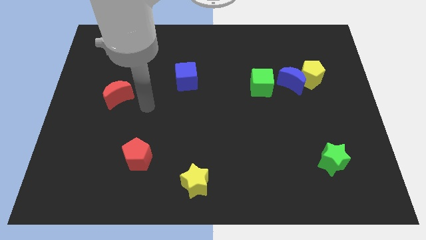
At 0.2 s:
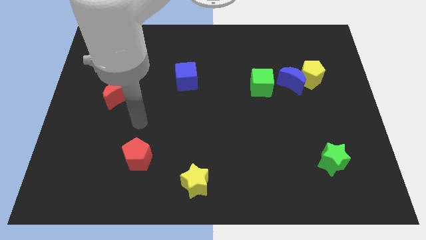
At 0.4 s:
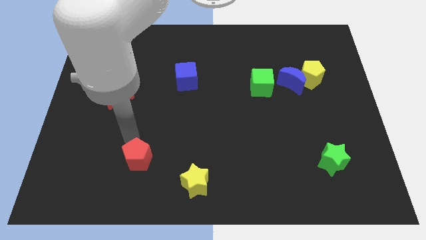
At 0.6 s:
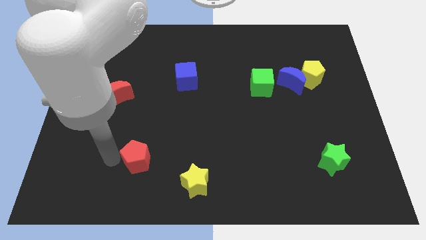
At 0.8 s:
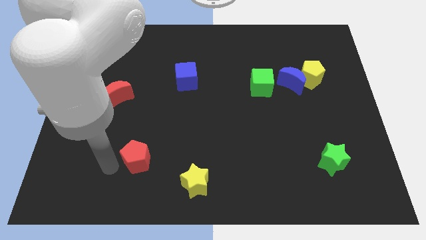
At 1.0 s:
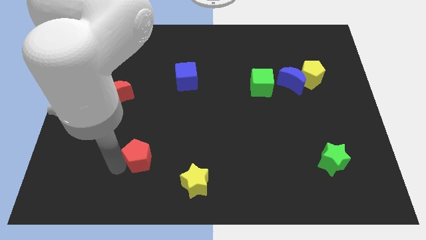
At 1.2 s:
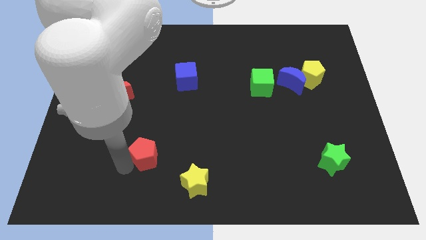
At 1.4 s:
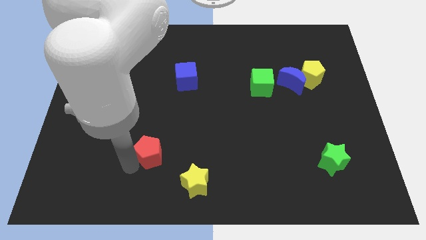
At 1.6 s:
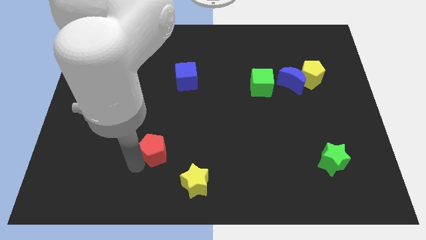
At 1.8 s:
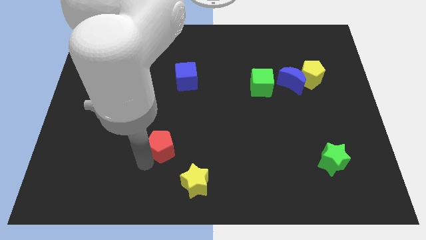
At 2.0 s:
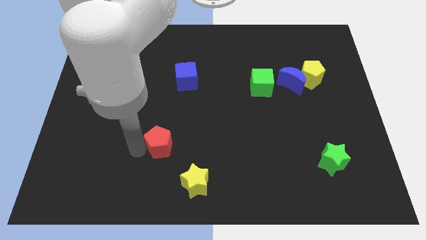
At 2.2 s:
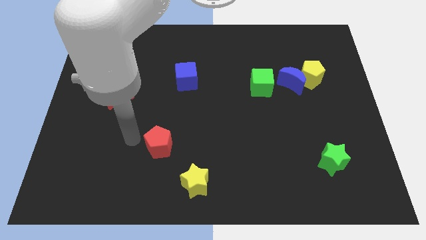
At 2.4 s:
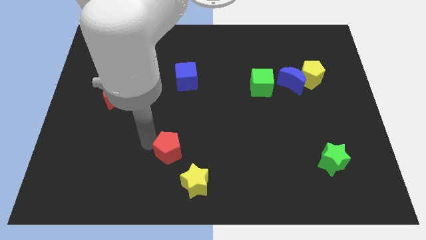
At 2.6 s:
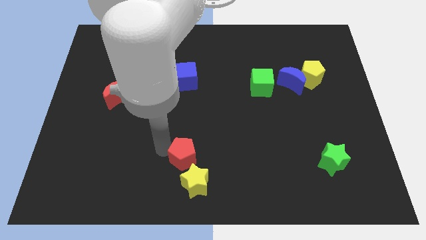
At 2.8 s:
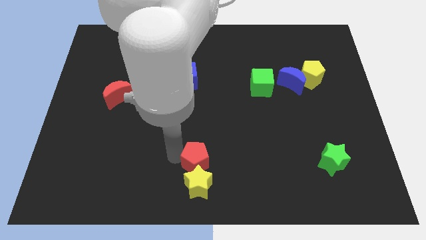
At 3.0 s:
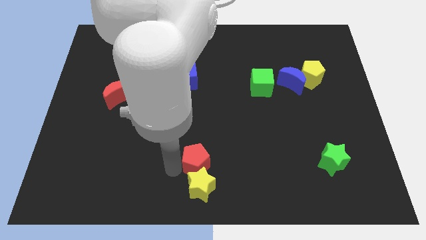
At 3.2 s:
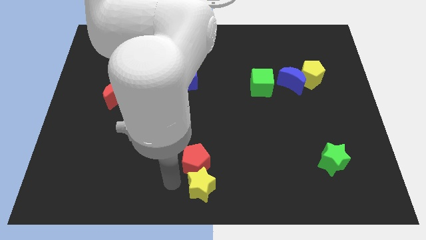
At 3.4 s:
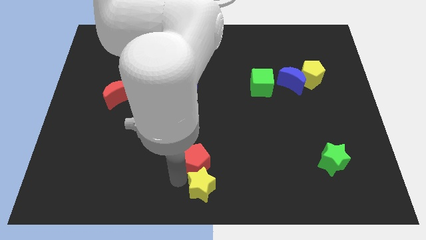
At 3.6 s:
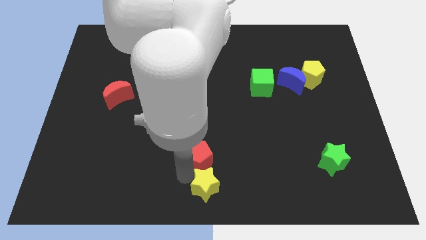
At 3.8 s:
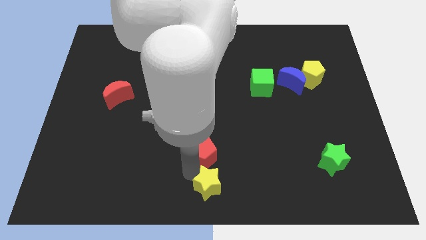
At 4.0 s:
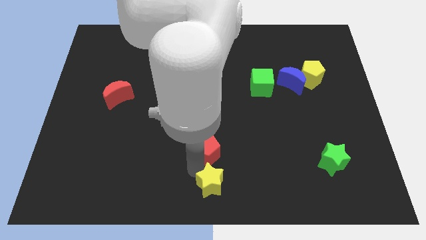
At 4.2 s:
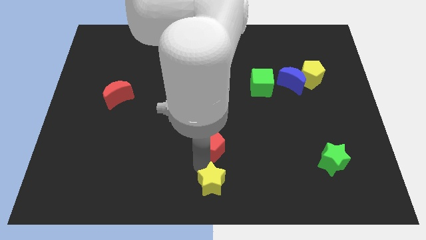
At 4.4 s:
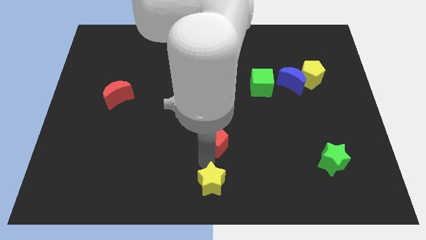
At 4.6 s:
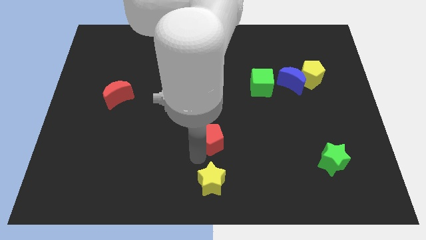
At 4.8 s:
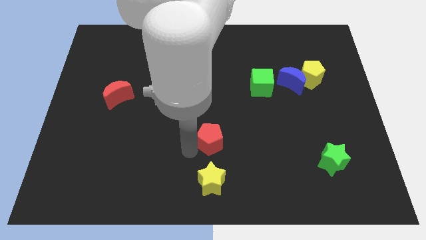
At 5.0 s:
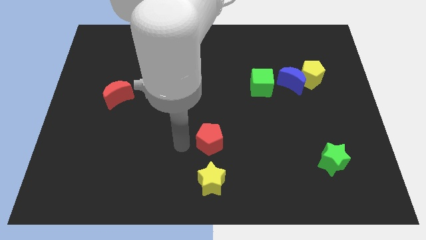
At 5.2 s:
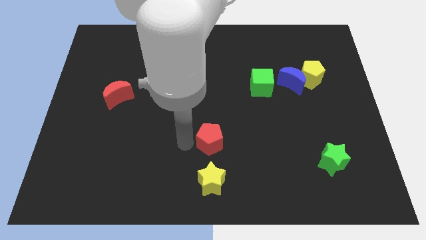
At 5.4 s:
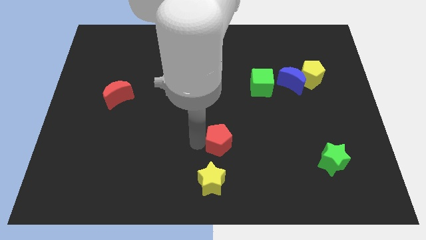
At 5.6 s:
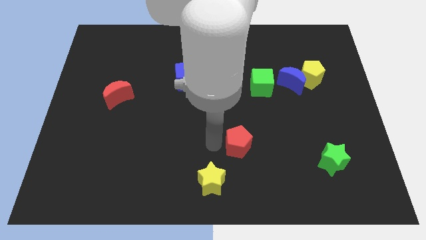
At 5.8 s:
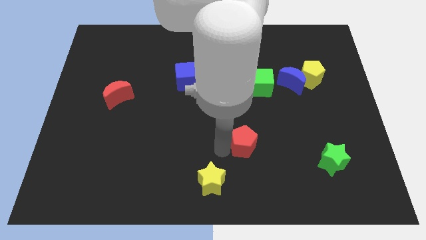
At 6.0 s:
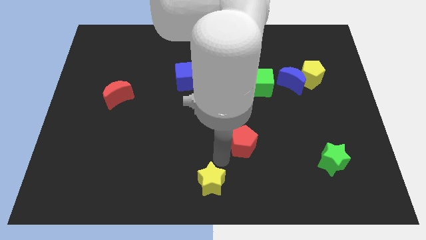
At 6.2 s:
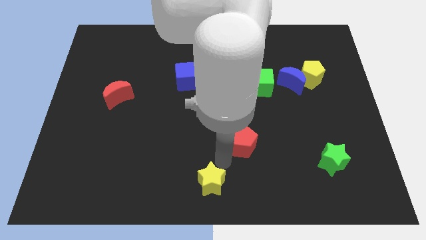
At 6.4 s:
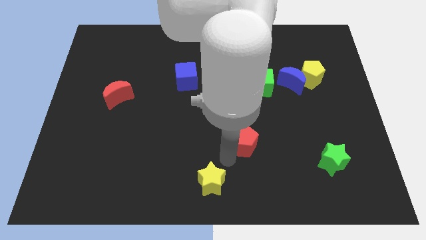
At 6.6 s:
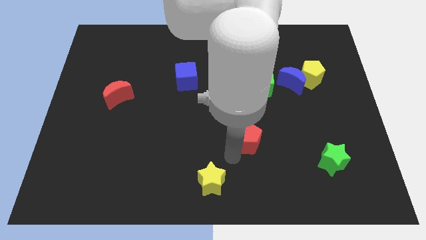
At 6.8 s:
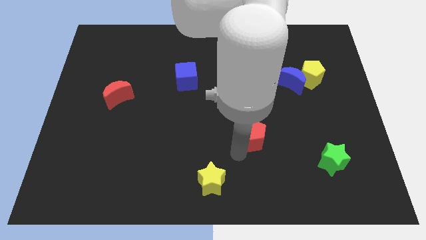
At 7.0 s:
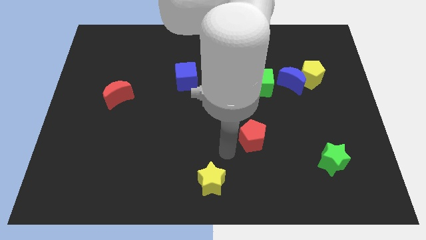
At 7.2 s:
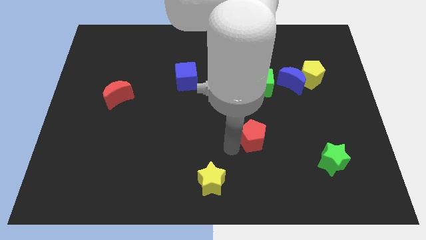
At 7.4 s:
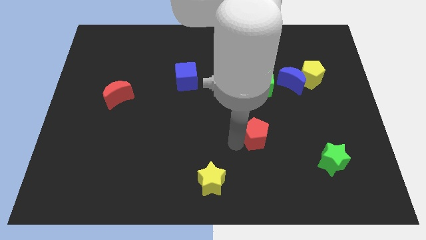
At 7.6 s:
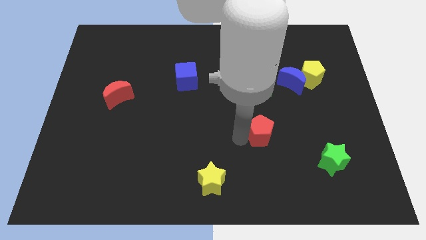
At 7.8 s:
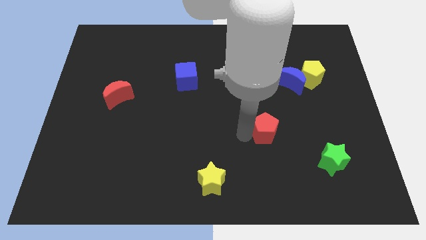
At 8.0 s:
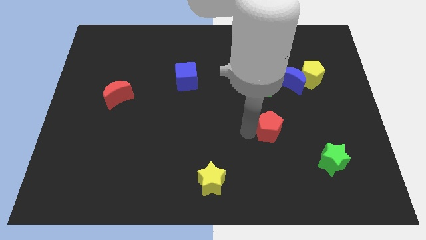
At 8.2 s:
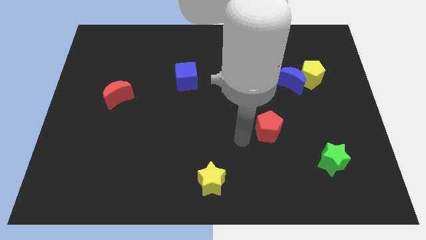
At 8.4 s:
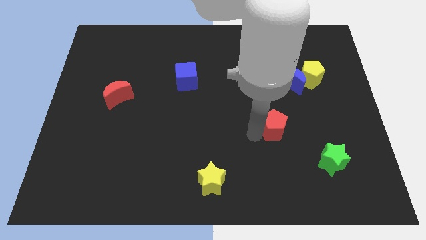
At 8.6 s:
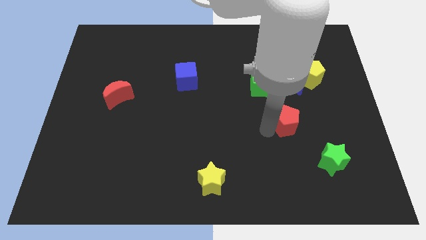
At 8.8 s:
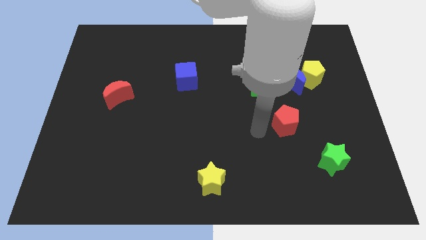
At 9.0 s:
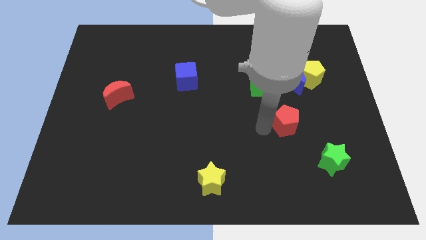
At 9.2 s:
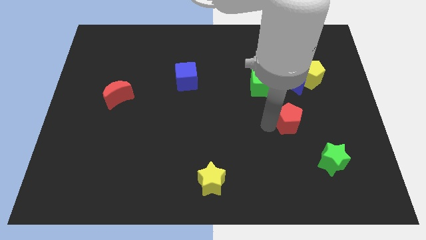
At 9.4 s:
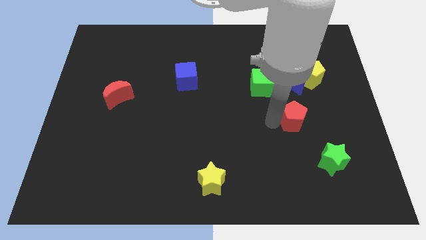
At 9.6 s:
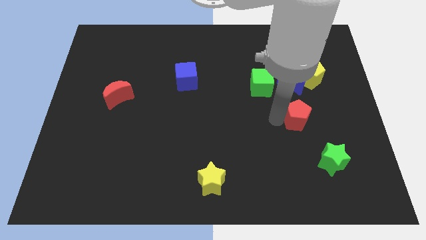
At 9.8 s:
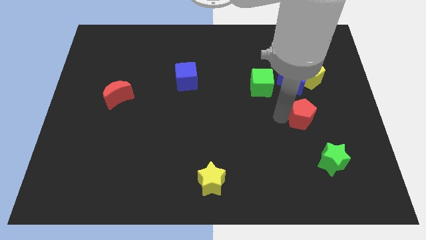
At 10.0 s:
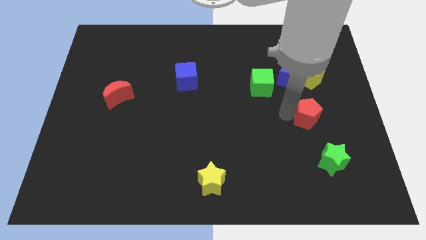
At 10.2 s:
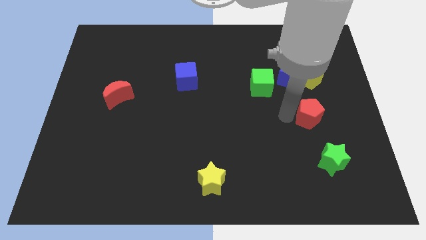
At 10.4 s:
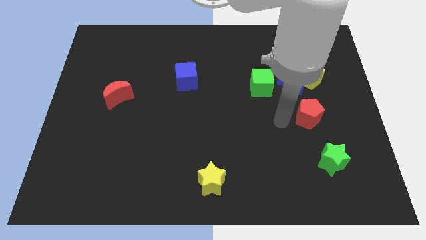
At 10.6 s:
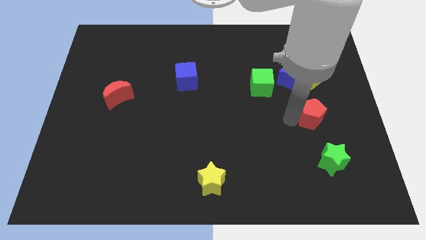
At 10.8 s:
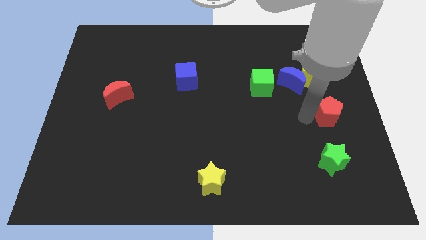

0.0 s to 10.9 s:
move the red pentagon to the right side of the board

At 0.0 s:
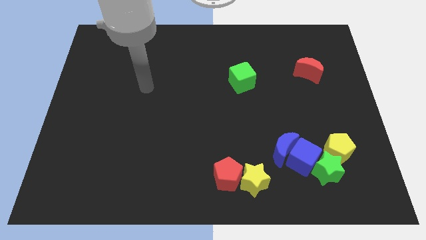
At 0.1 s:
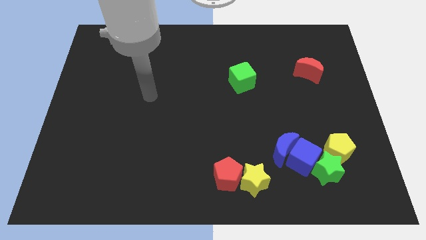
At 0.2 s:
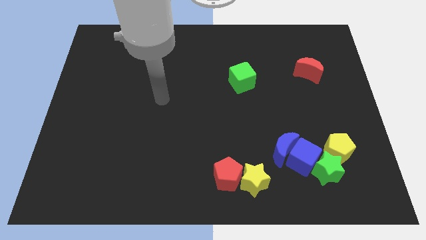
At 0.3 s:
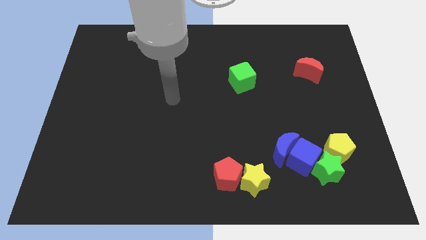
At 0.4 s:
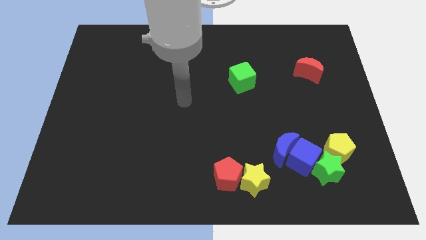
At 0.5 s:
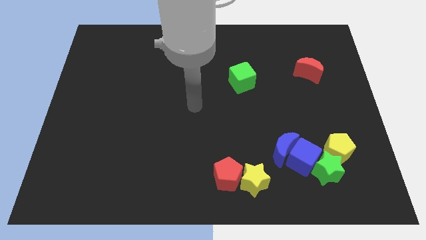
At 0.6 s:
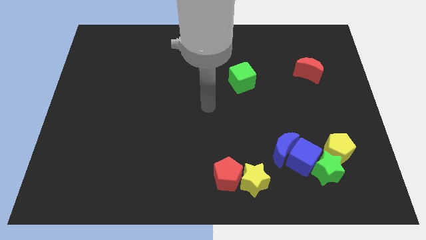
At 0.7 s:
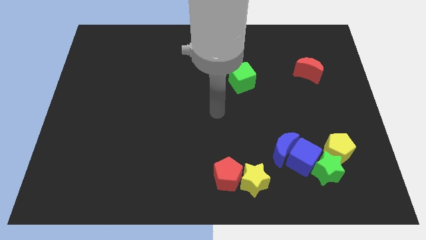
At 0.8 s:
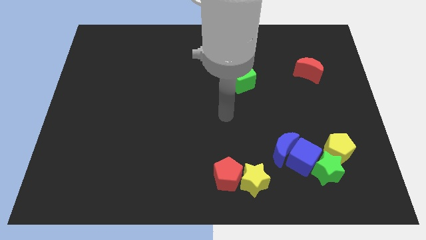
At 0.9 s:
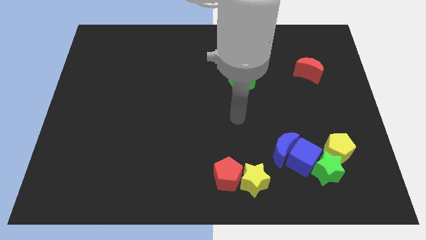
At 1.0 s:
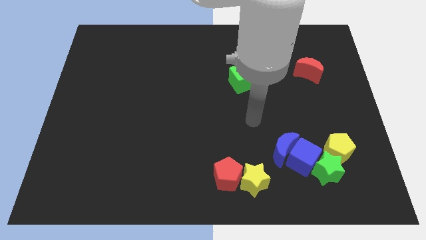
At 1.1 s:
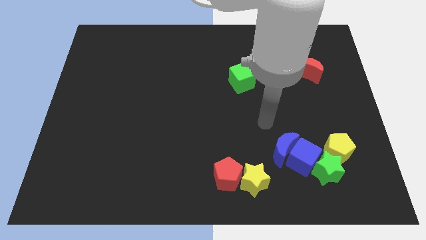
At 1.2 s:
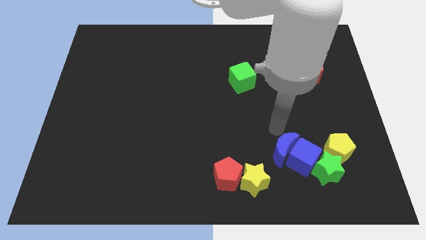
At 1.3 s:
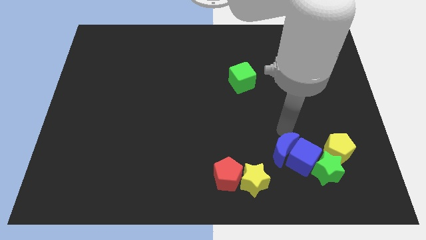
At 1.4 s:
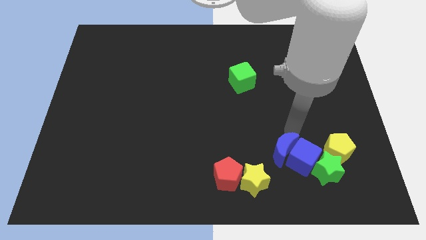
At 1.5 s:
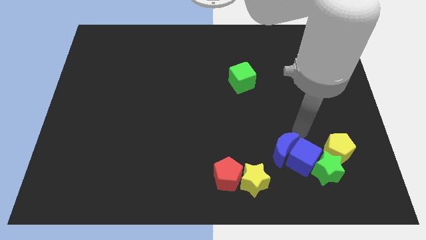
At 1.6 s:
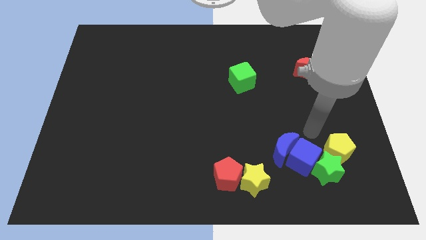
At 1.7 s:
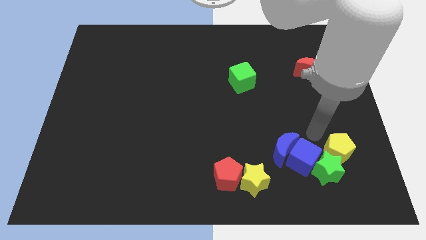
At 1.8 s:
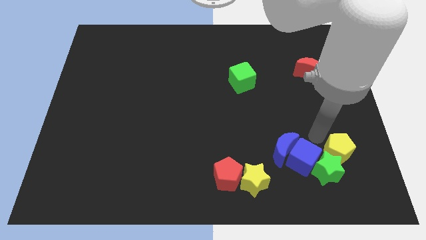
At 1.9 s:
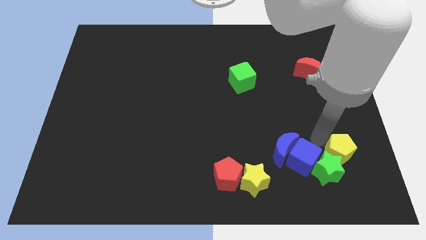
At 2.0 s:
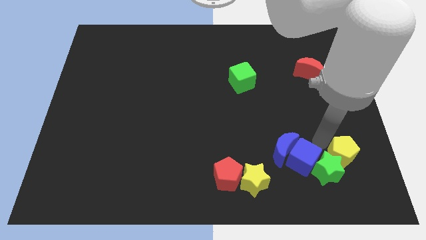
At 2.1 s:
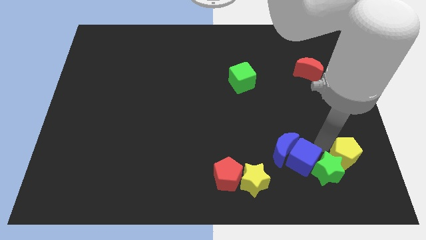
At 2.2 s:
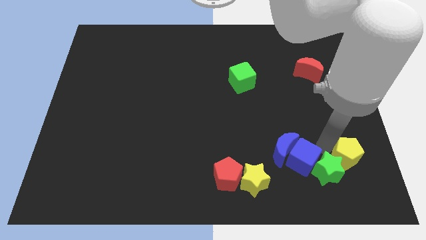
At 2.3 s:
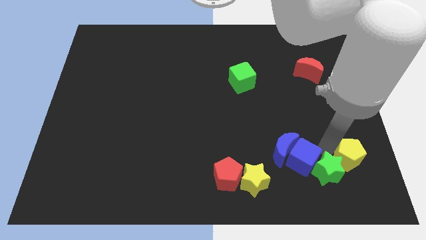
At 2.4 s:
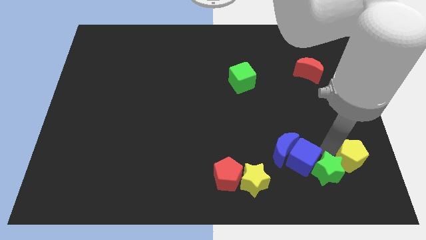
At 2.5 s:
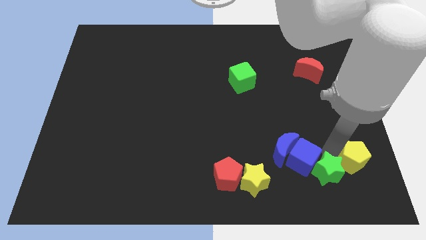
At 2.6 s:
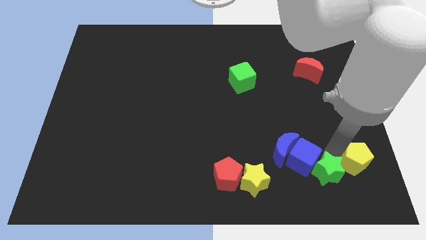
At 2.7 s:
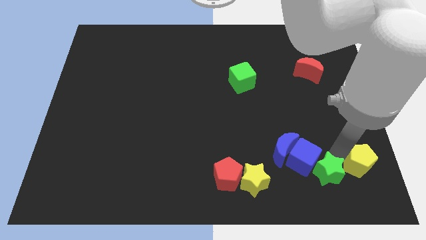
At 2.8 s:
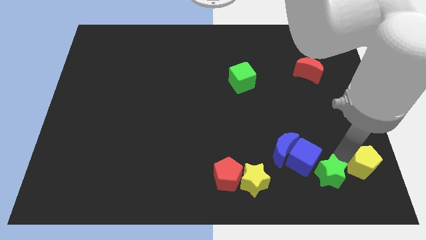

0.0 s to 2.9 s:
push the yellow pentagon to the bottom right corner
